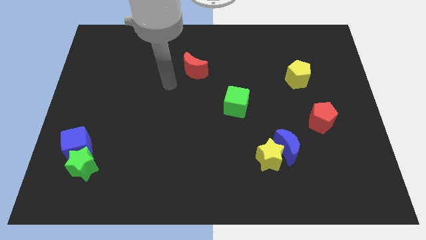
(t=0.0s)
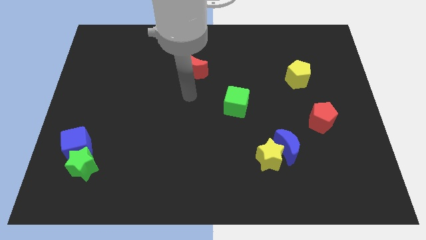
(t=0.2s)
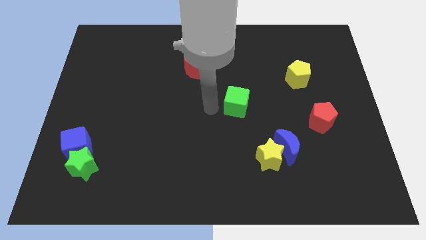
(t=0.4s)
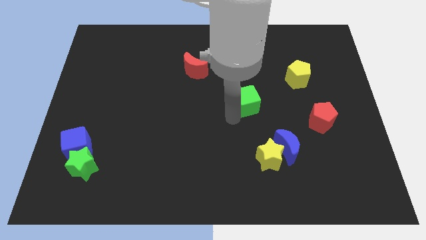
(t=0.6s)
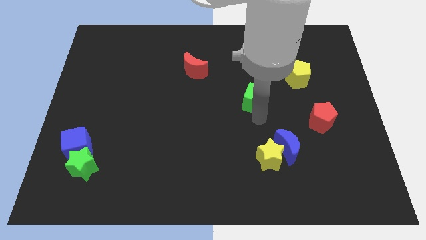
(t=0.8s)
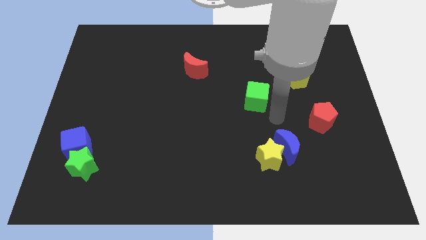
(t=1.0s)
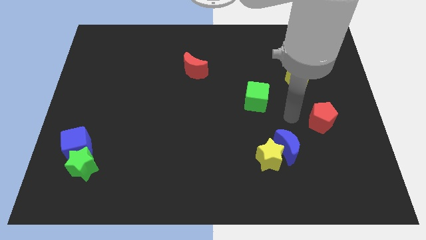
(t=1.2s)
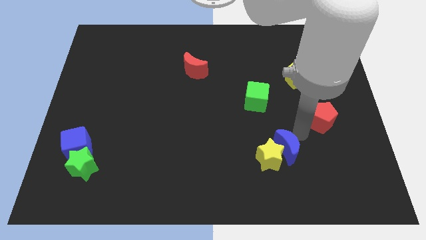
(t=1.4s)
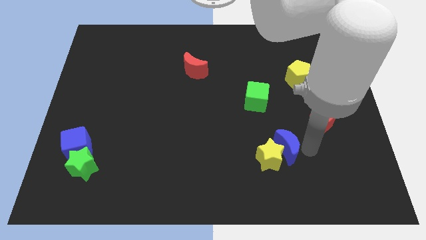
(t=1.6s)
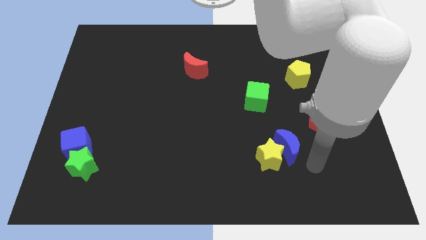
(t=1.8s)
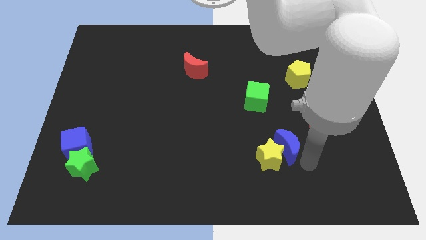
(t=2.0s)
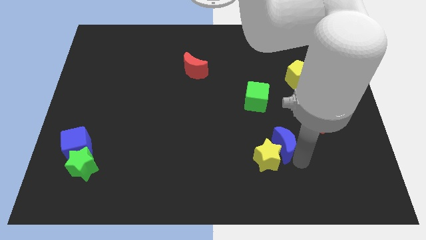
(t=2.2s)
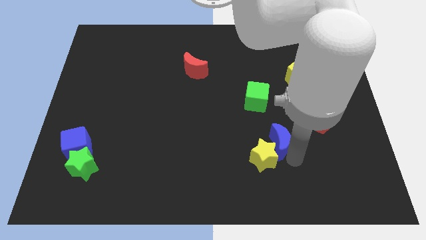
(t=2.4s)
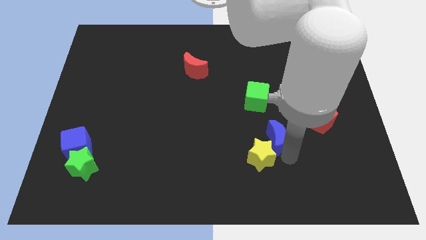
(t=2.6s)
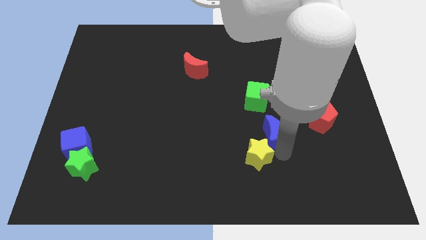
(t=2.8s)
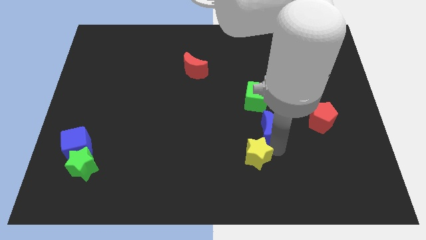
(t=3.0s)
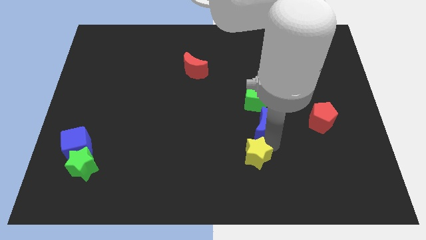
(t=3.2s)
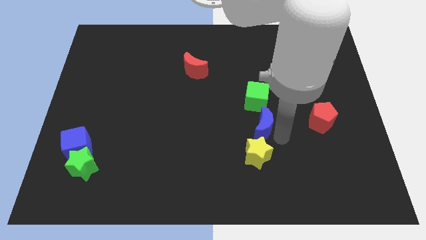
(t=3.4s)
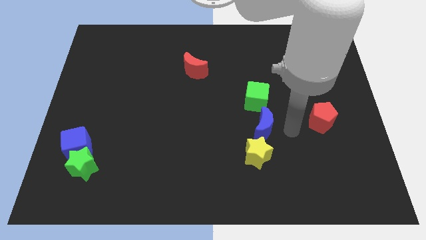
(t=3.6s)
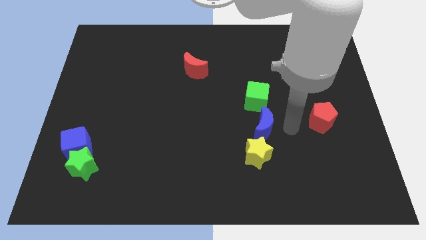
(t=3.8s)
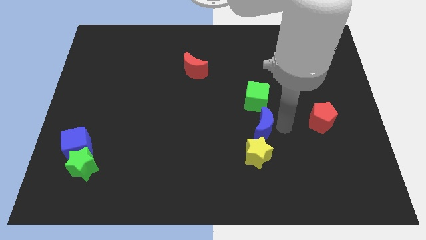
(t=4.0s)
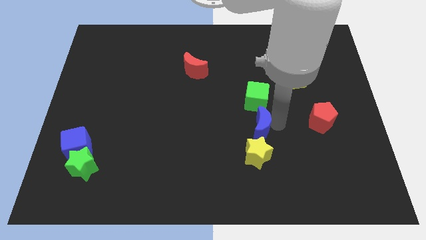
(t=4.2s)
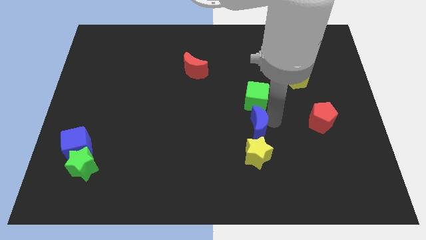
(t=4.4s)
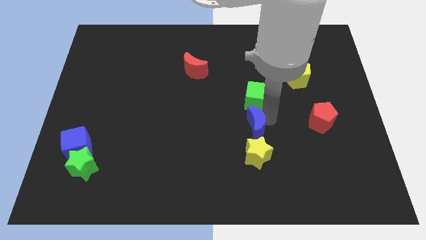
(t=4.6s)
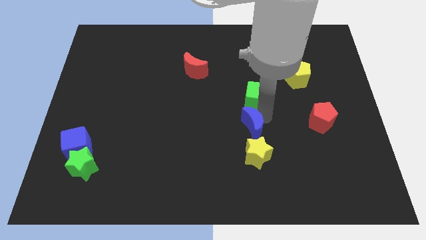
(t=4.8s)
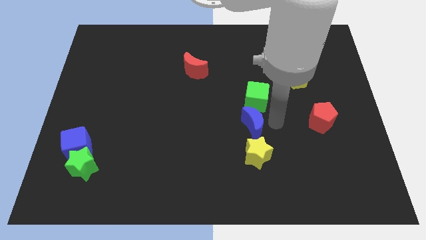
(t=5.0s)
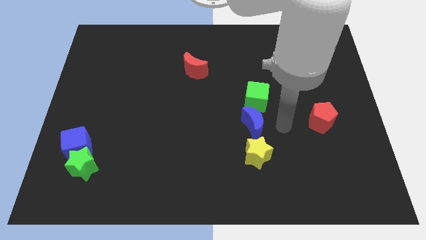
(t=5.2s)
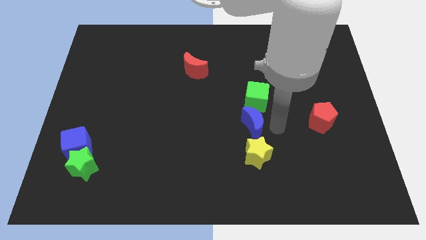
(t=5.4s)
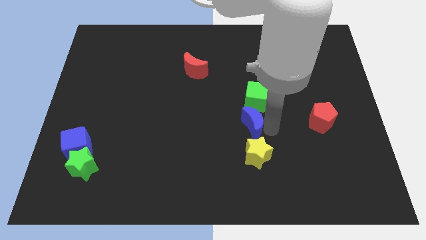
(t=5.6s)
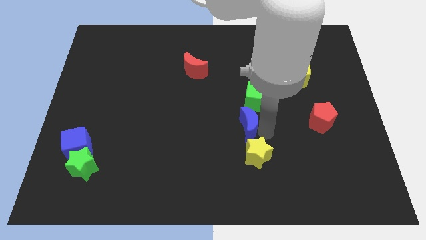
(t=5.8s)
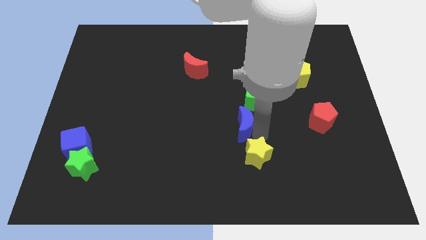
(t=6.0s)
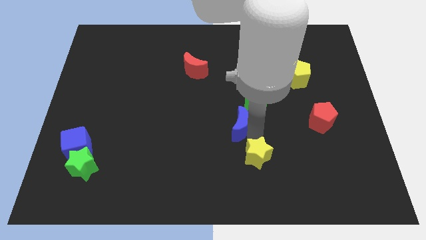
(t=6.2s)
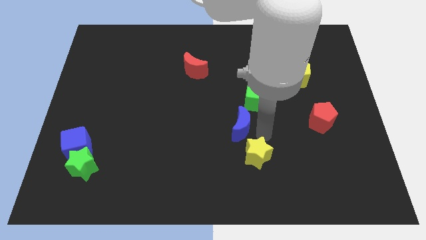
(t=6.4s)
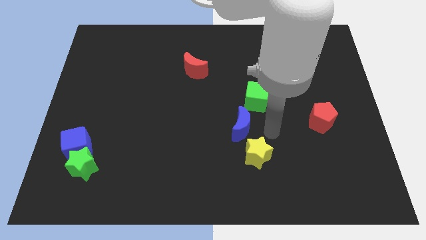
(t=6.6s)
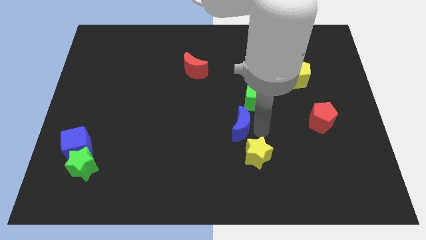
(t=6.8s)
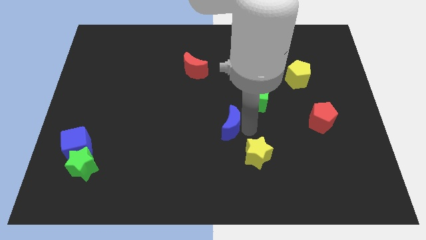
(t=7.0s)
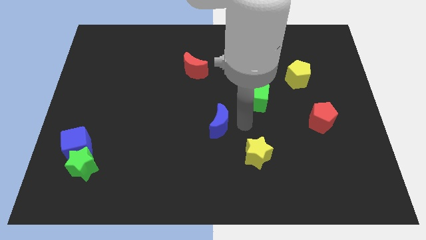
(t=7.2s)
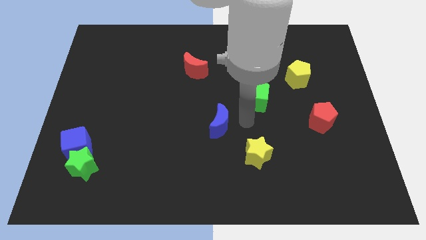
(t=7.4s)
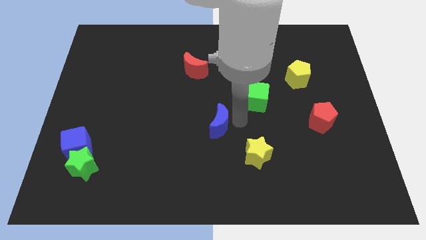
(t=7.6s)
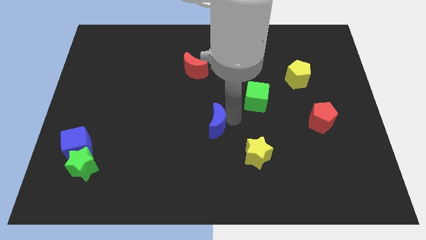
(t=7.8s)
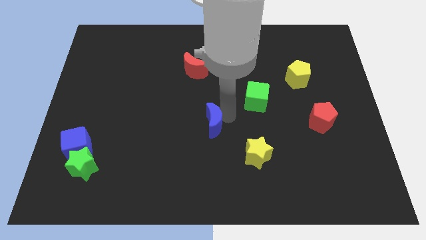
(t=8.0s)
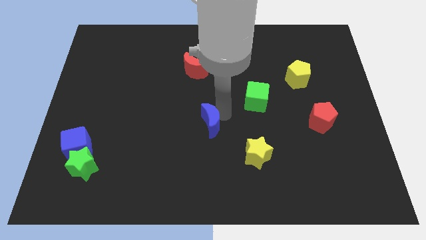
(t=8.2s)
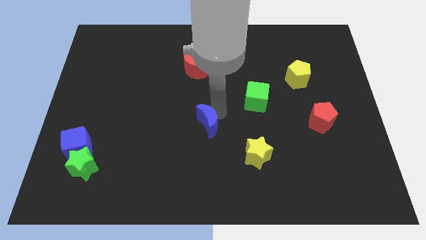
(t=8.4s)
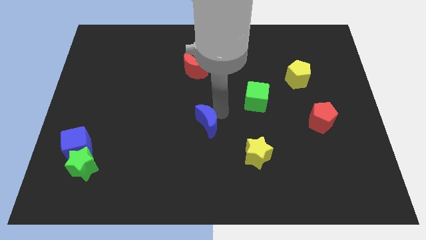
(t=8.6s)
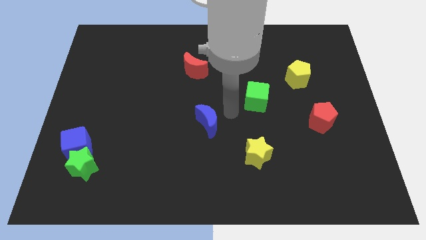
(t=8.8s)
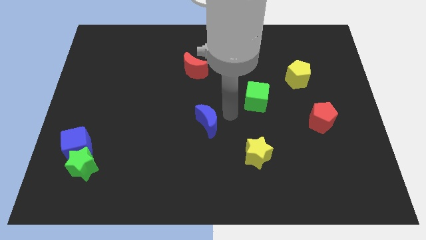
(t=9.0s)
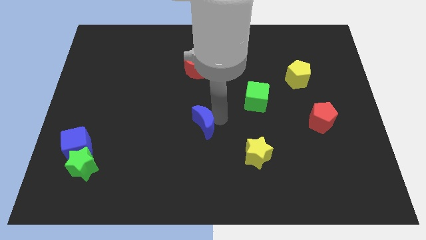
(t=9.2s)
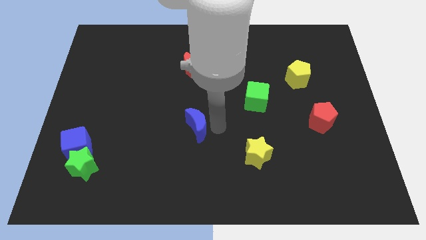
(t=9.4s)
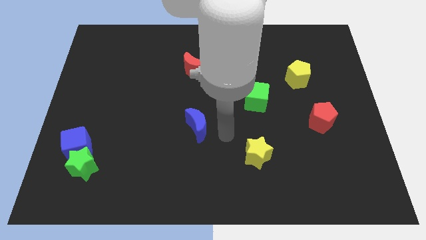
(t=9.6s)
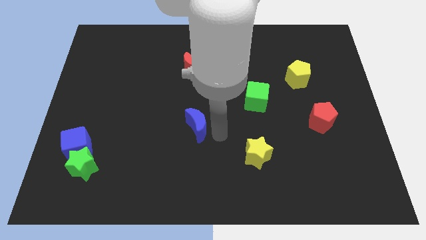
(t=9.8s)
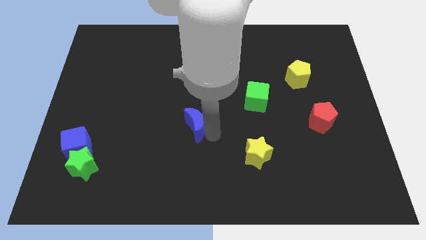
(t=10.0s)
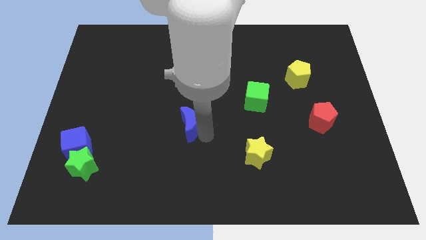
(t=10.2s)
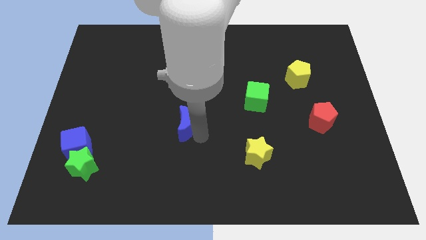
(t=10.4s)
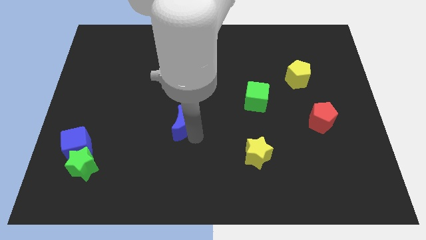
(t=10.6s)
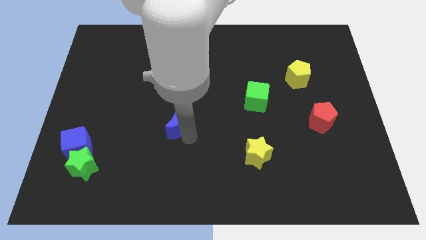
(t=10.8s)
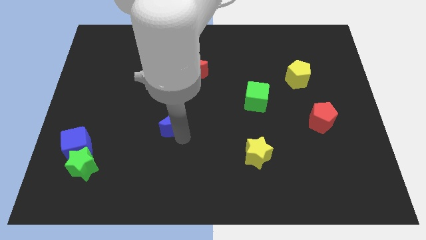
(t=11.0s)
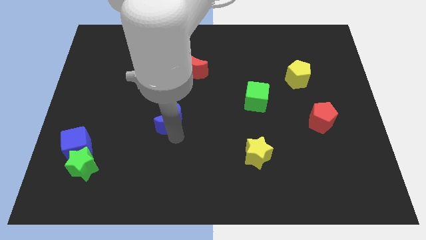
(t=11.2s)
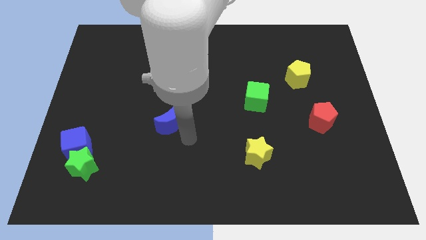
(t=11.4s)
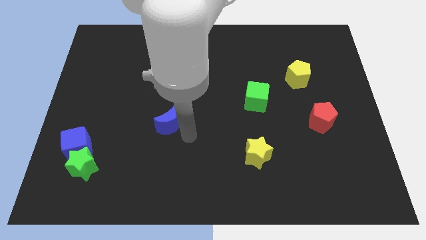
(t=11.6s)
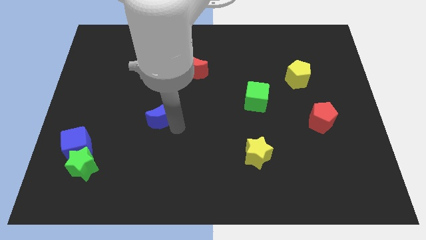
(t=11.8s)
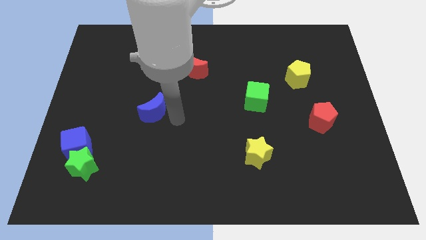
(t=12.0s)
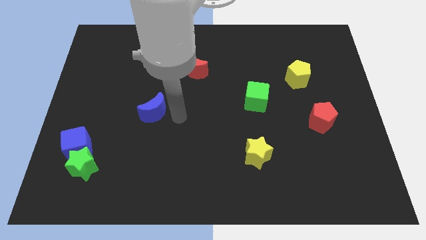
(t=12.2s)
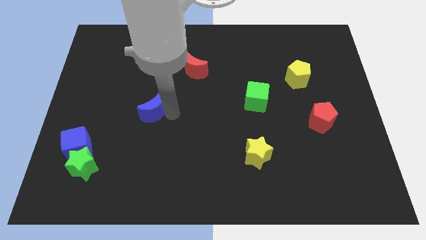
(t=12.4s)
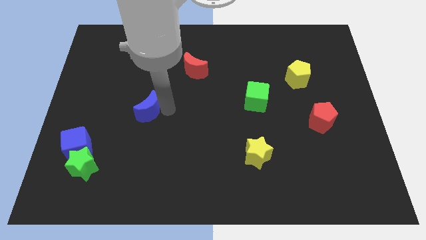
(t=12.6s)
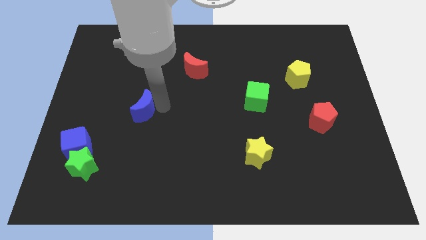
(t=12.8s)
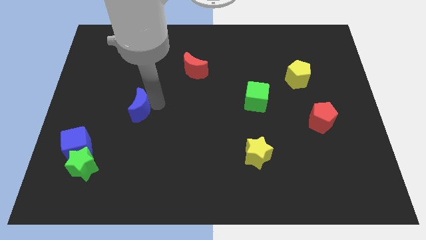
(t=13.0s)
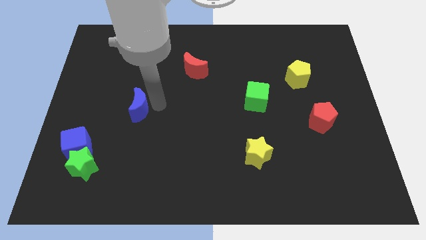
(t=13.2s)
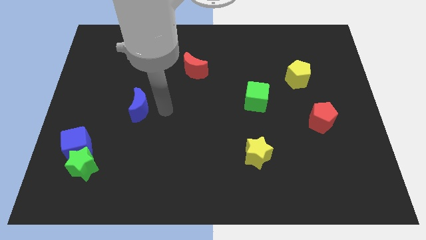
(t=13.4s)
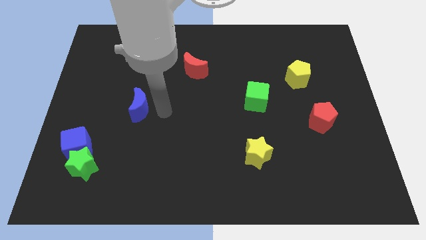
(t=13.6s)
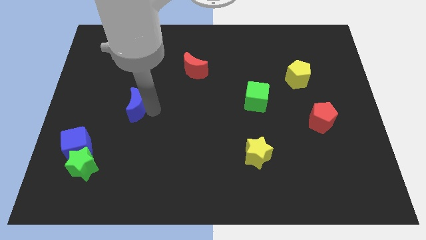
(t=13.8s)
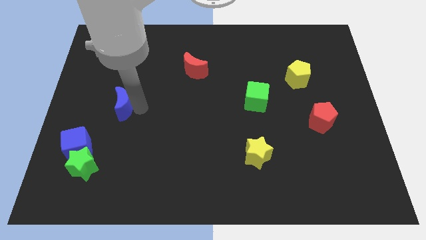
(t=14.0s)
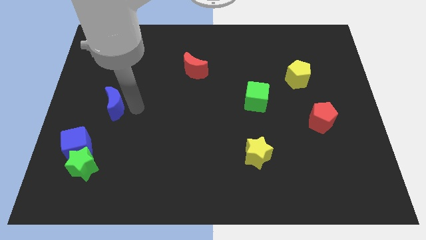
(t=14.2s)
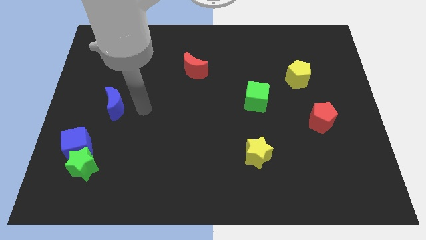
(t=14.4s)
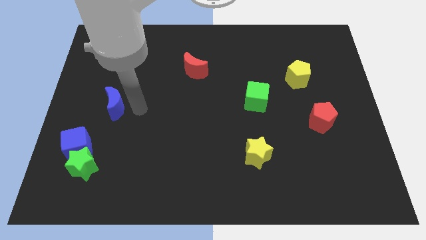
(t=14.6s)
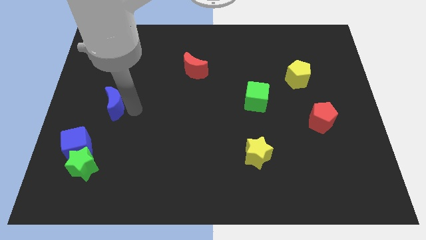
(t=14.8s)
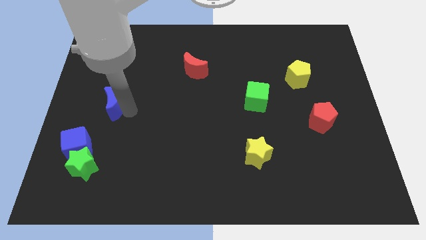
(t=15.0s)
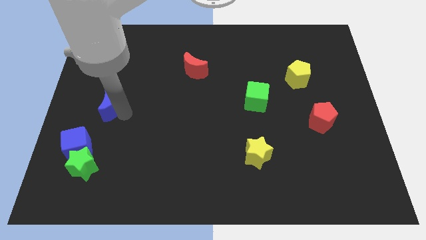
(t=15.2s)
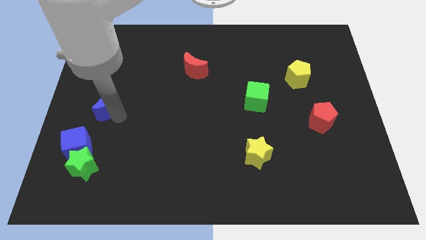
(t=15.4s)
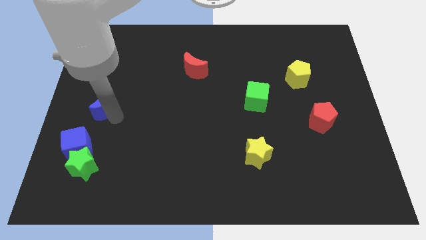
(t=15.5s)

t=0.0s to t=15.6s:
put the blue moon to the left side of the board
